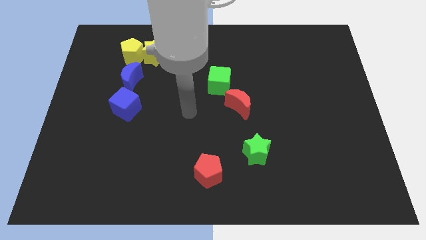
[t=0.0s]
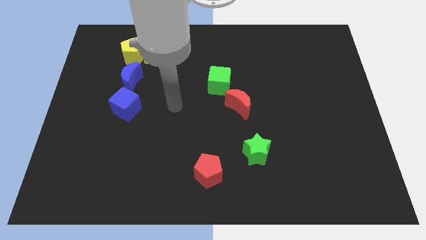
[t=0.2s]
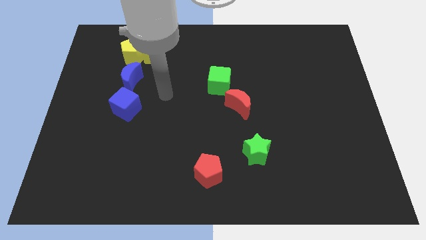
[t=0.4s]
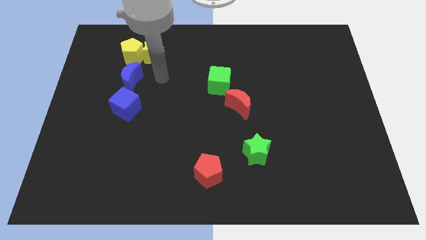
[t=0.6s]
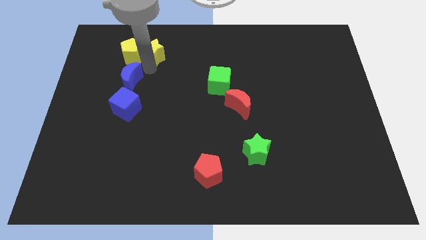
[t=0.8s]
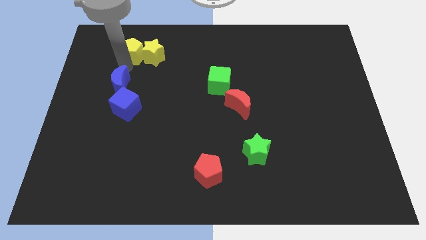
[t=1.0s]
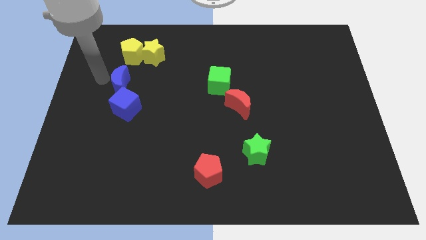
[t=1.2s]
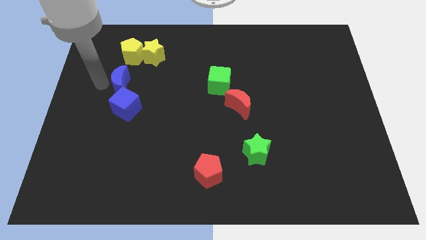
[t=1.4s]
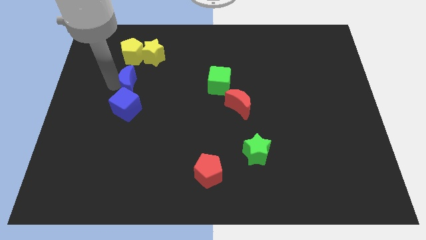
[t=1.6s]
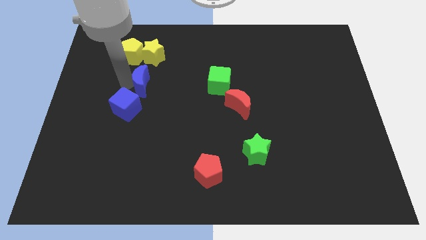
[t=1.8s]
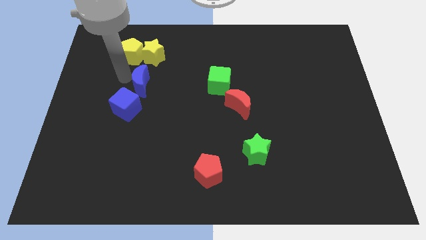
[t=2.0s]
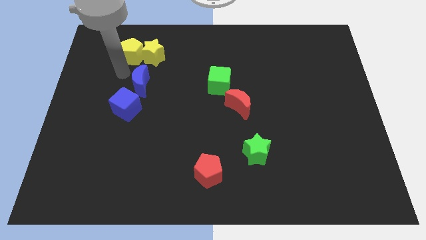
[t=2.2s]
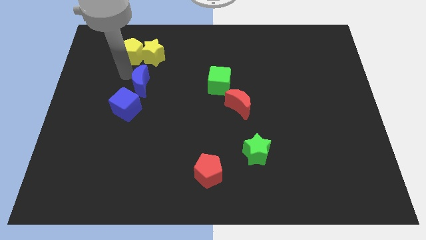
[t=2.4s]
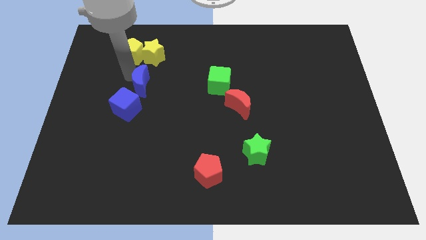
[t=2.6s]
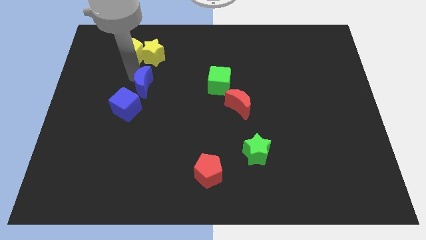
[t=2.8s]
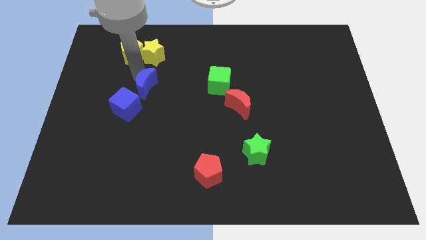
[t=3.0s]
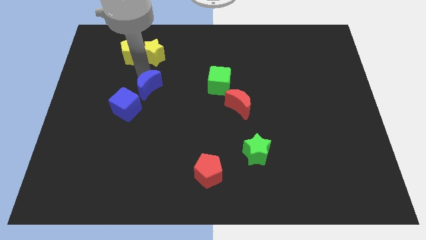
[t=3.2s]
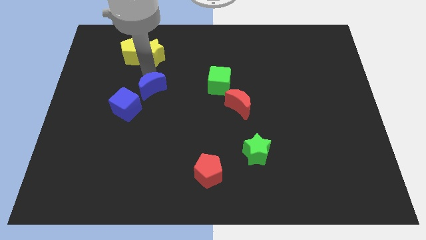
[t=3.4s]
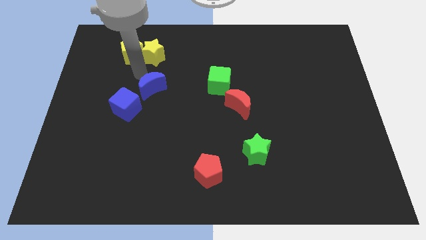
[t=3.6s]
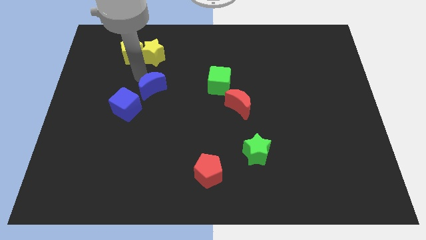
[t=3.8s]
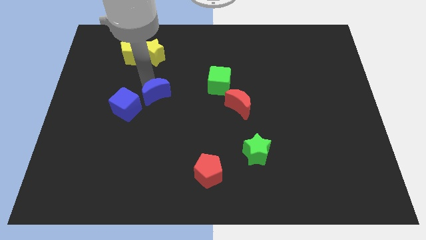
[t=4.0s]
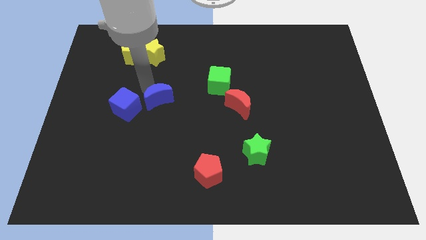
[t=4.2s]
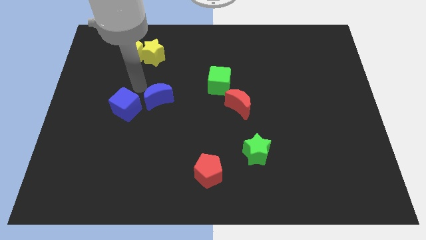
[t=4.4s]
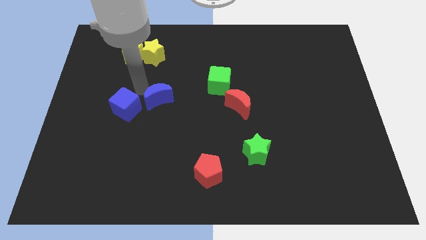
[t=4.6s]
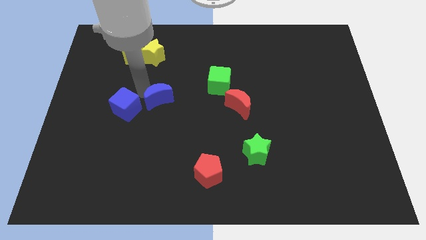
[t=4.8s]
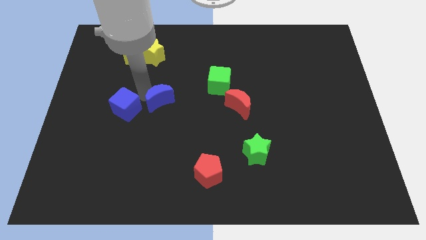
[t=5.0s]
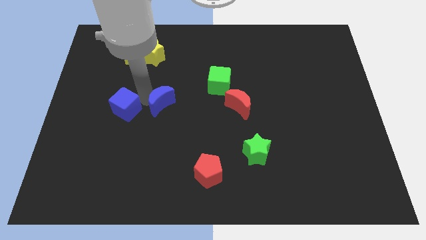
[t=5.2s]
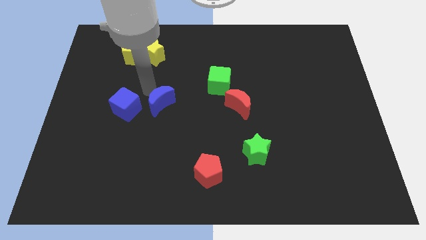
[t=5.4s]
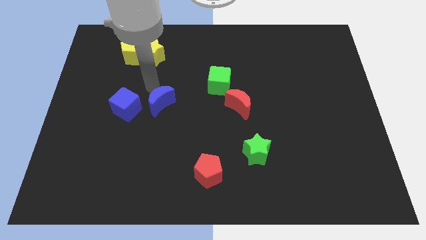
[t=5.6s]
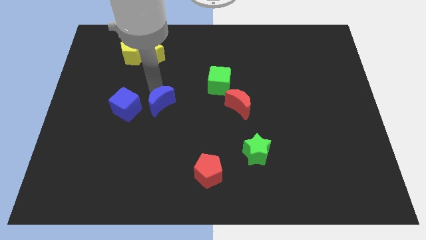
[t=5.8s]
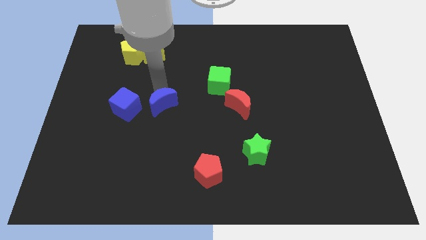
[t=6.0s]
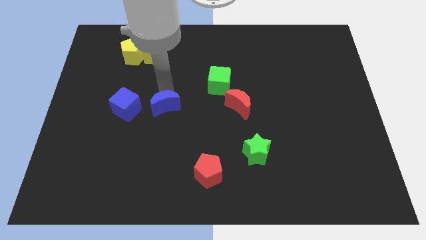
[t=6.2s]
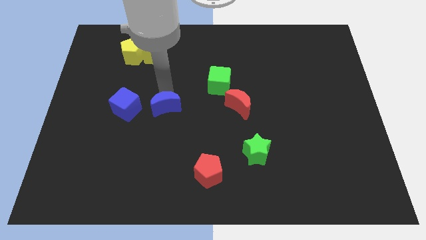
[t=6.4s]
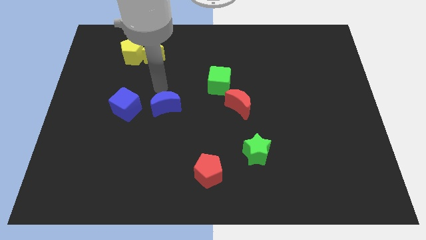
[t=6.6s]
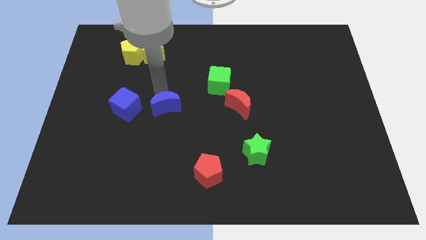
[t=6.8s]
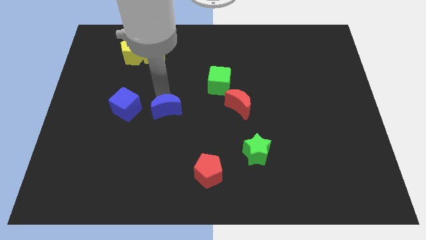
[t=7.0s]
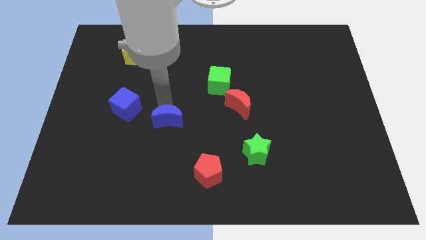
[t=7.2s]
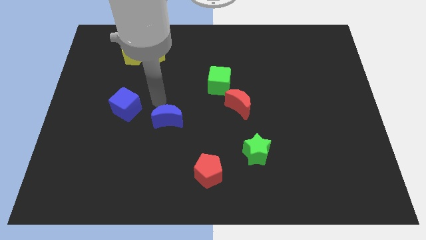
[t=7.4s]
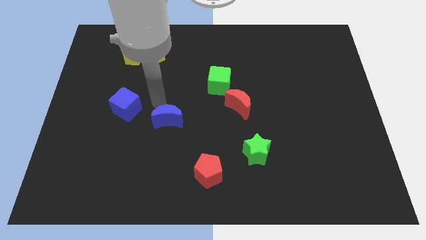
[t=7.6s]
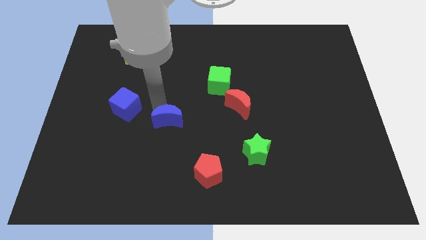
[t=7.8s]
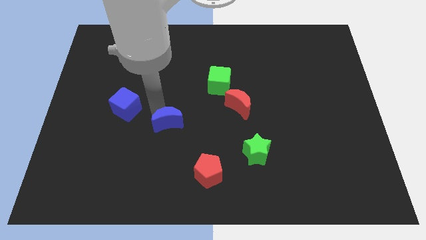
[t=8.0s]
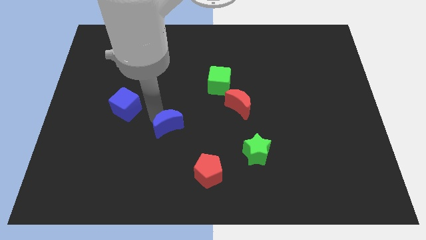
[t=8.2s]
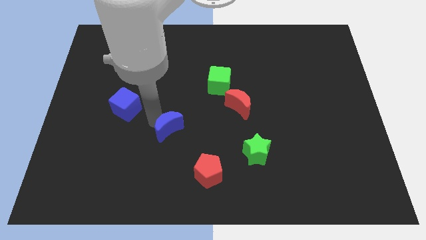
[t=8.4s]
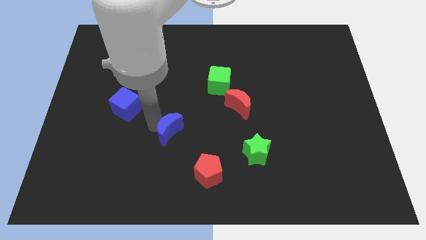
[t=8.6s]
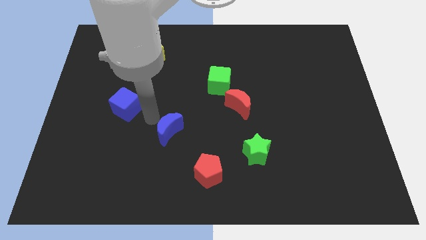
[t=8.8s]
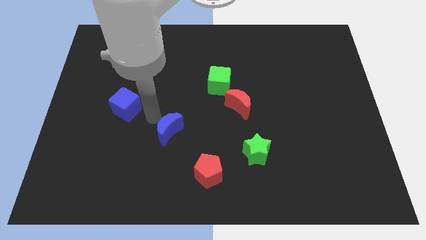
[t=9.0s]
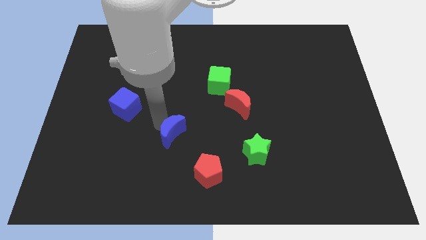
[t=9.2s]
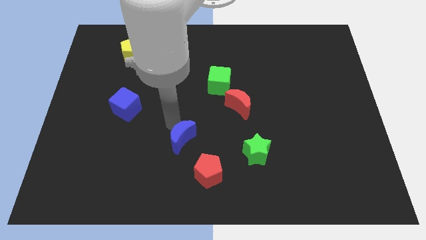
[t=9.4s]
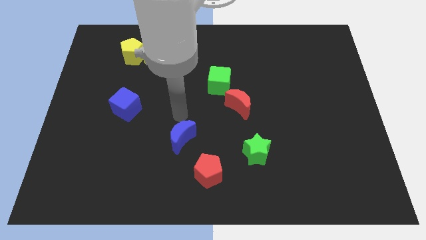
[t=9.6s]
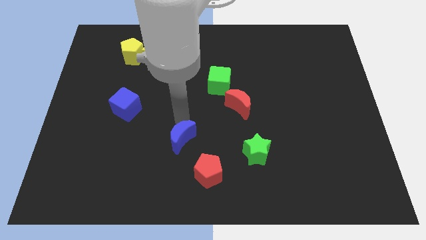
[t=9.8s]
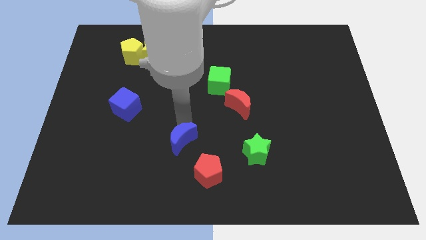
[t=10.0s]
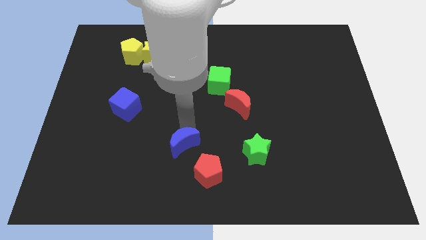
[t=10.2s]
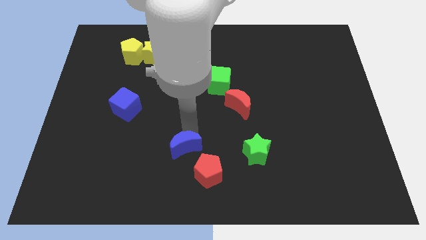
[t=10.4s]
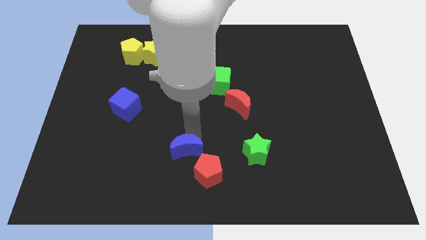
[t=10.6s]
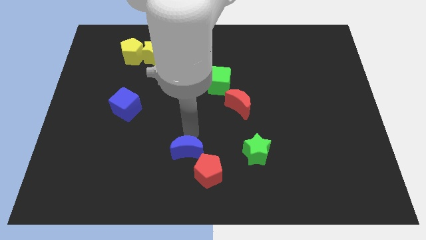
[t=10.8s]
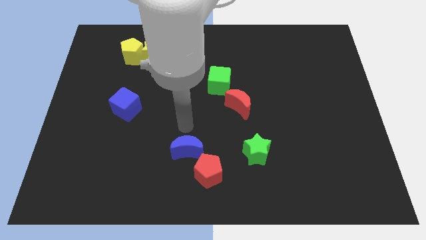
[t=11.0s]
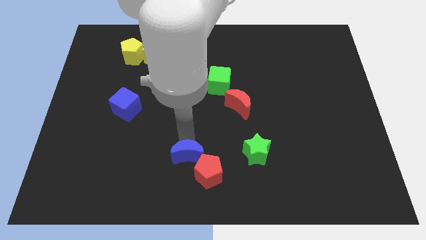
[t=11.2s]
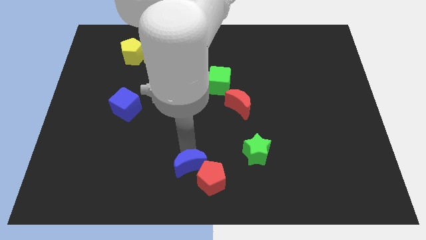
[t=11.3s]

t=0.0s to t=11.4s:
move the blue moon to the bottom
